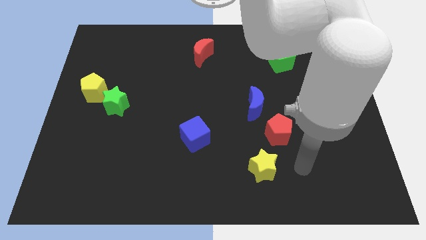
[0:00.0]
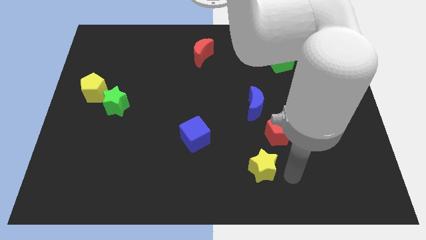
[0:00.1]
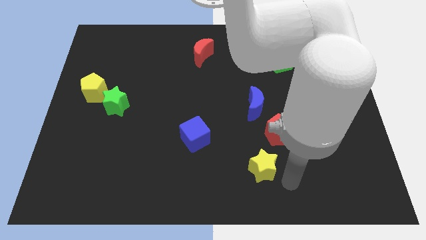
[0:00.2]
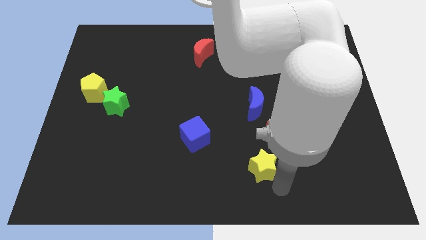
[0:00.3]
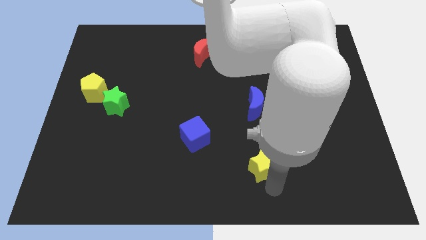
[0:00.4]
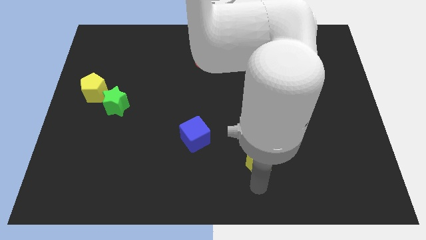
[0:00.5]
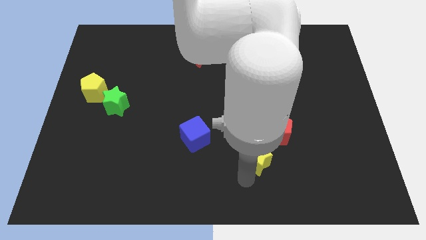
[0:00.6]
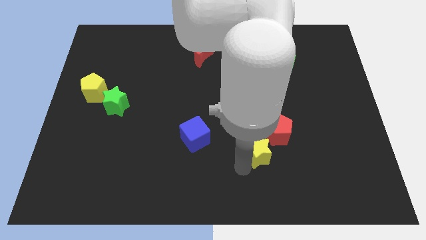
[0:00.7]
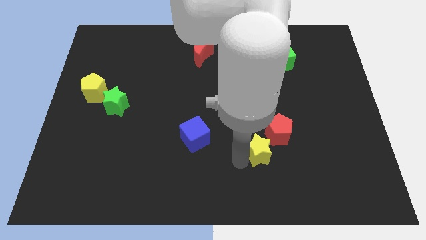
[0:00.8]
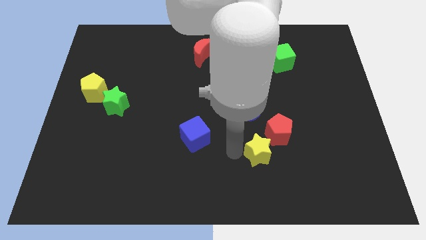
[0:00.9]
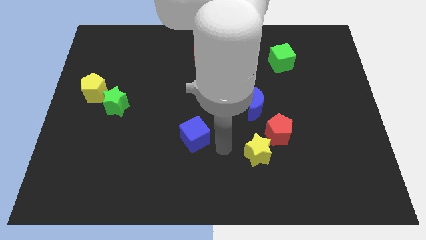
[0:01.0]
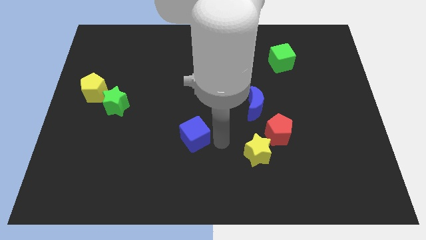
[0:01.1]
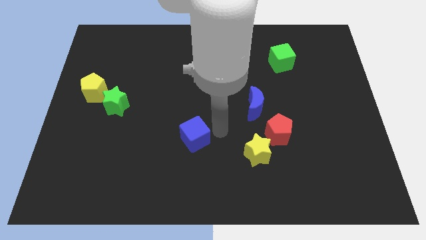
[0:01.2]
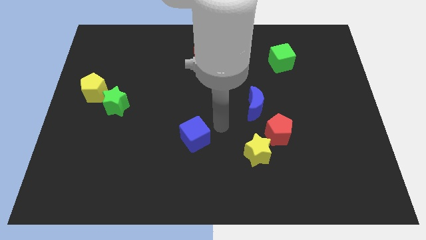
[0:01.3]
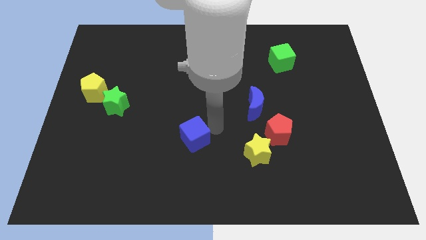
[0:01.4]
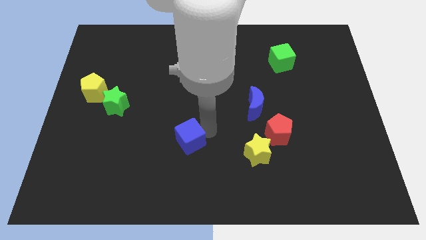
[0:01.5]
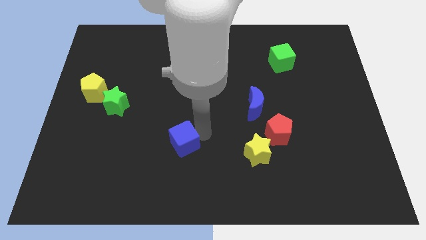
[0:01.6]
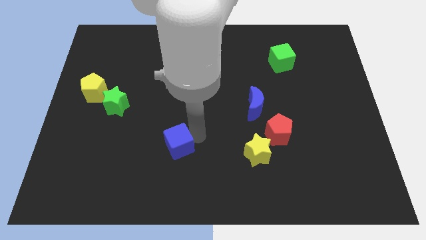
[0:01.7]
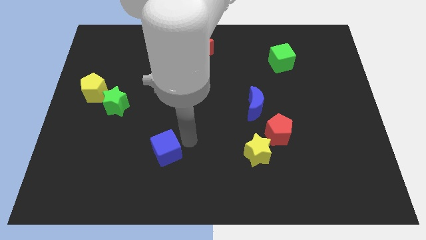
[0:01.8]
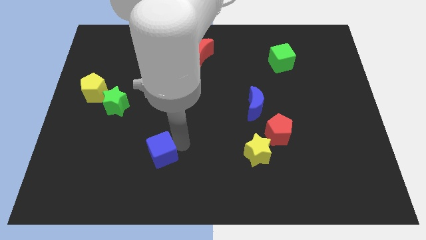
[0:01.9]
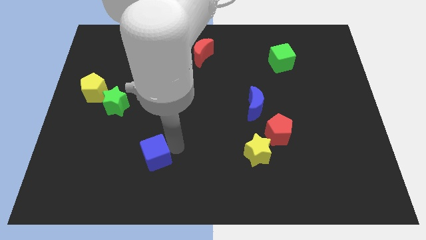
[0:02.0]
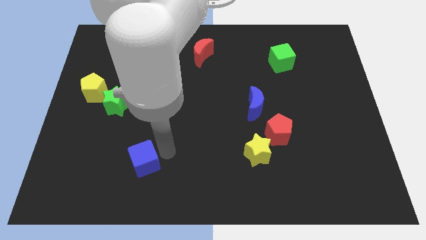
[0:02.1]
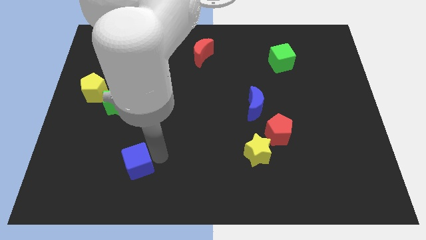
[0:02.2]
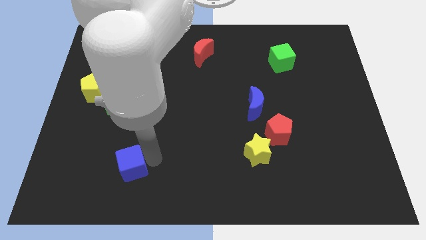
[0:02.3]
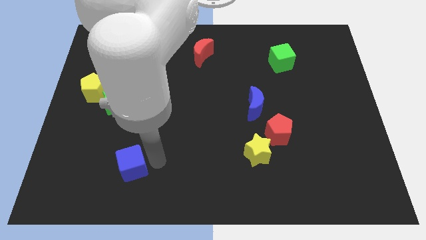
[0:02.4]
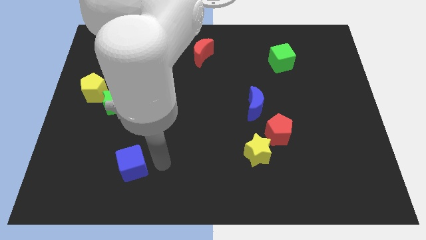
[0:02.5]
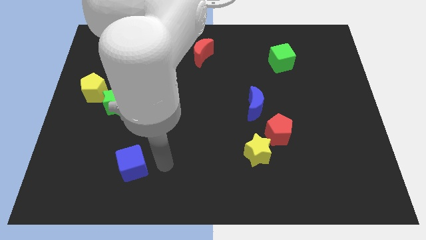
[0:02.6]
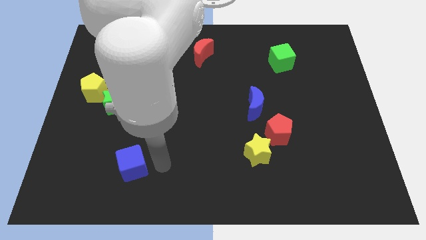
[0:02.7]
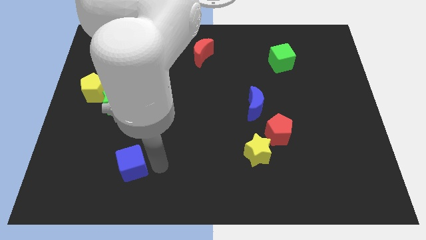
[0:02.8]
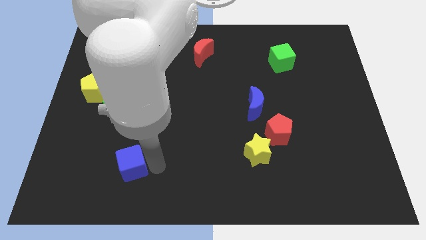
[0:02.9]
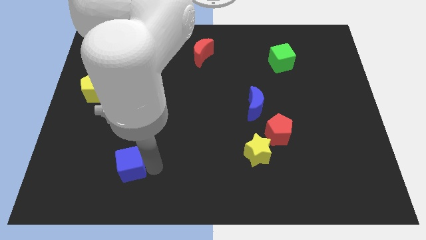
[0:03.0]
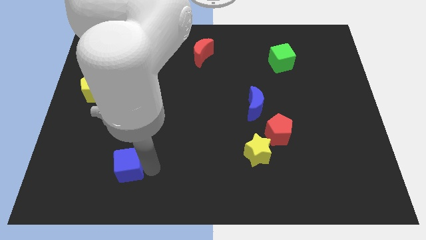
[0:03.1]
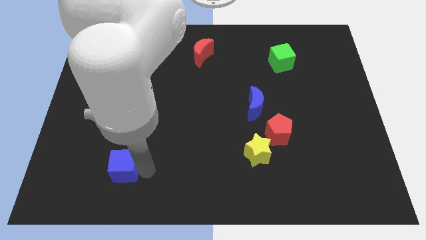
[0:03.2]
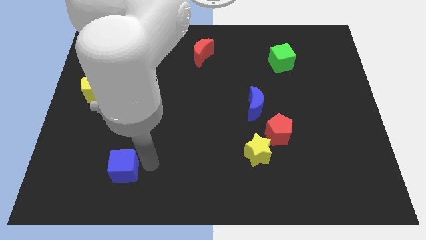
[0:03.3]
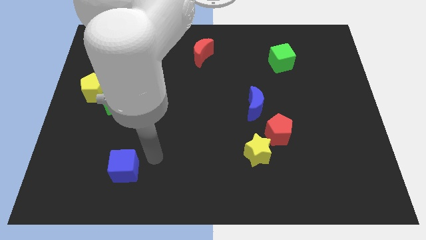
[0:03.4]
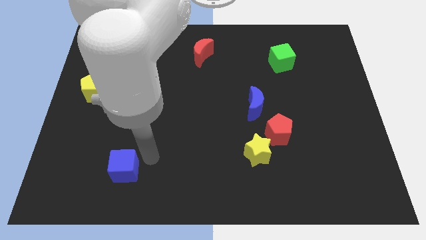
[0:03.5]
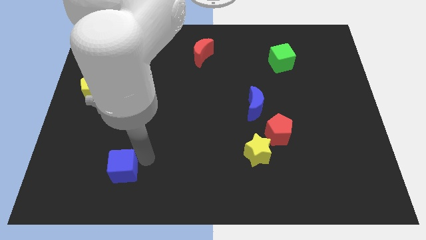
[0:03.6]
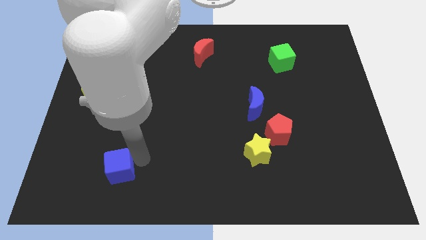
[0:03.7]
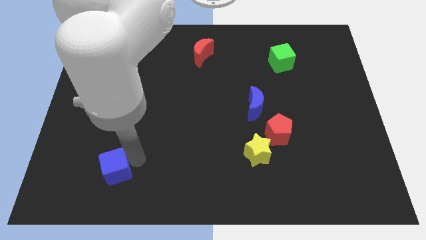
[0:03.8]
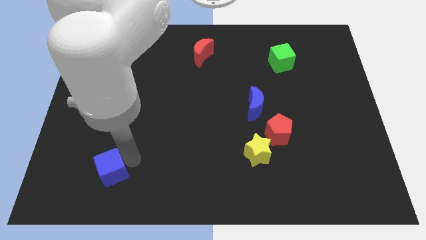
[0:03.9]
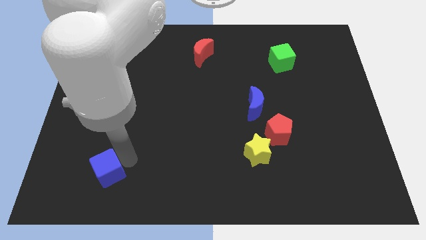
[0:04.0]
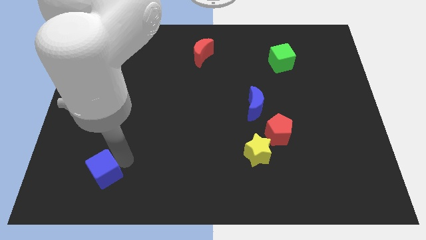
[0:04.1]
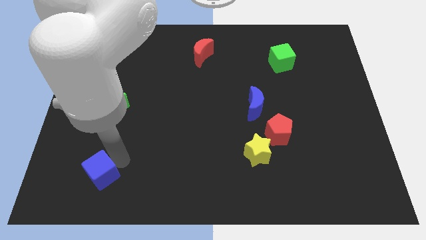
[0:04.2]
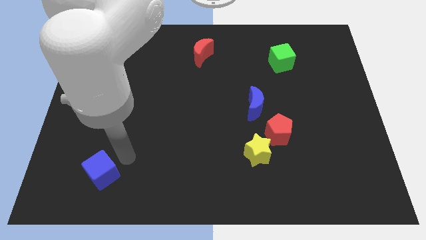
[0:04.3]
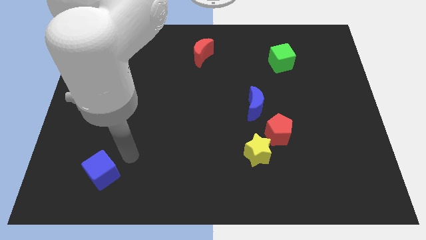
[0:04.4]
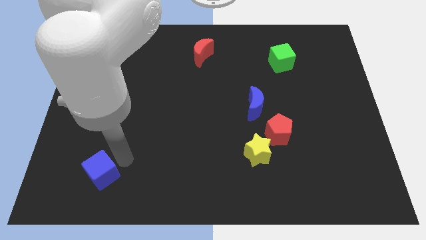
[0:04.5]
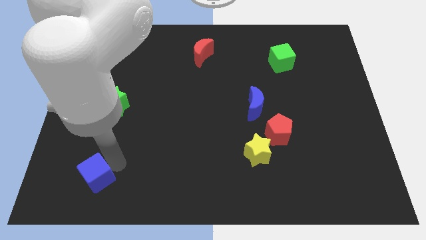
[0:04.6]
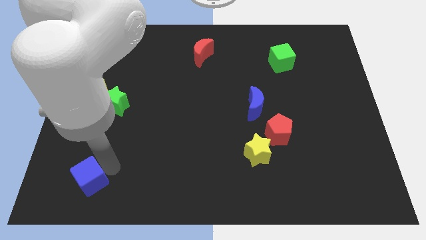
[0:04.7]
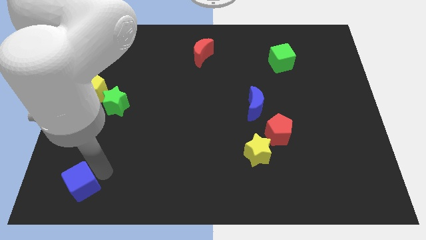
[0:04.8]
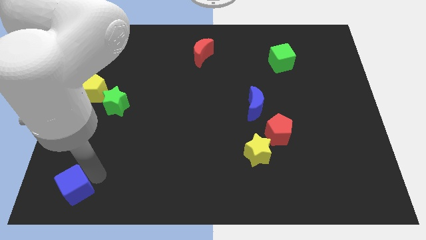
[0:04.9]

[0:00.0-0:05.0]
slide the blue cube to the lower left corner

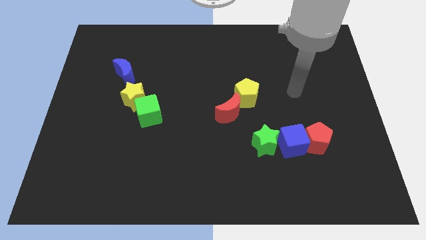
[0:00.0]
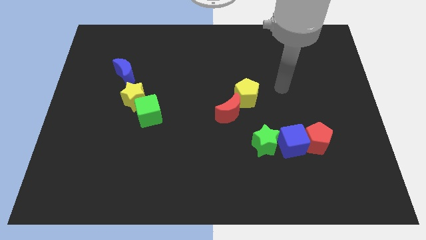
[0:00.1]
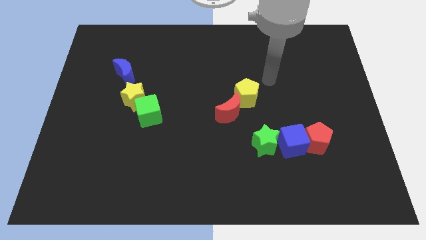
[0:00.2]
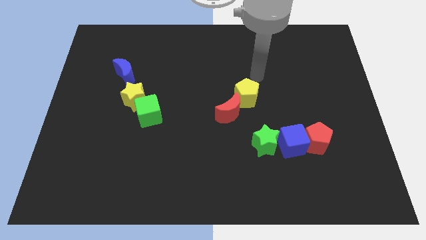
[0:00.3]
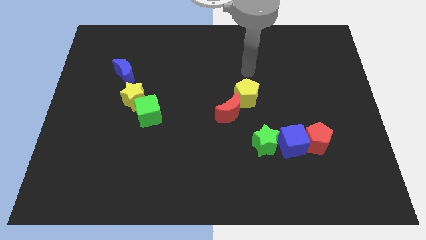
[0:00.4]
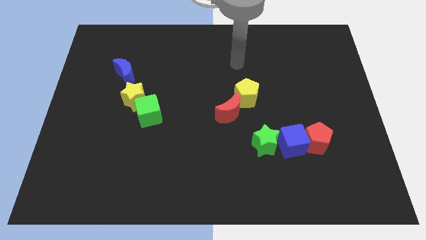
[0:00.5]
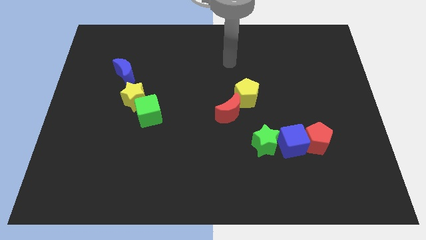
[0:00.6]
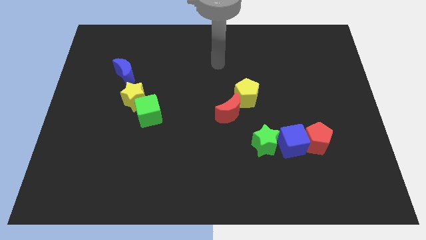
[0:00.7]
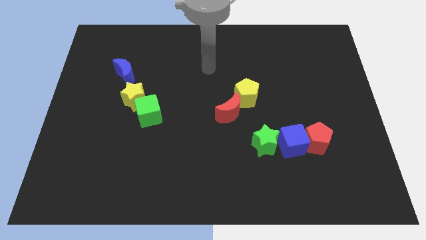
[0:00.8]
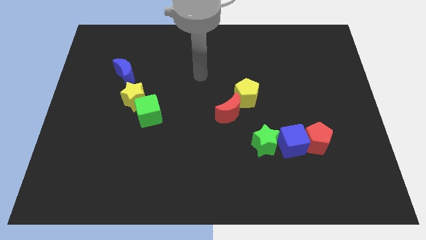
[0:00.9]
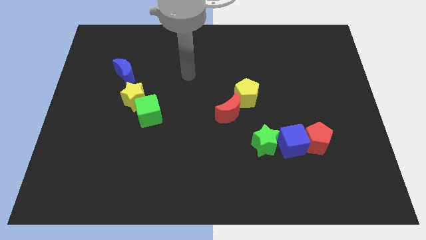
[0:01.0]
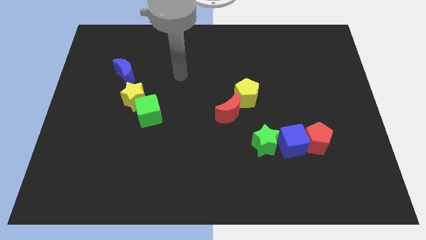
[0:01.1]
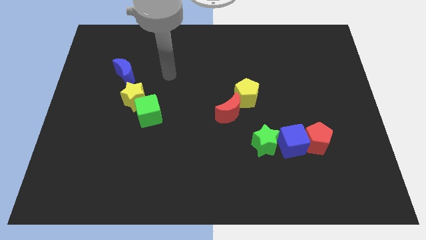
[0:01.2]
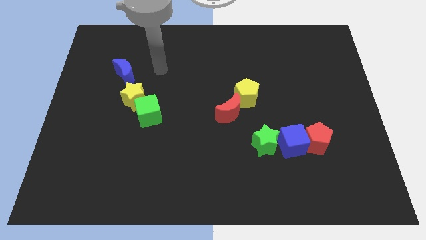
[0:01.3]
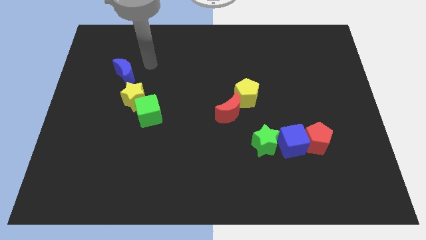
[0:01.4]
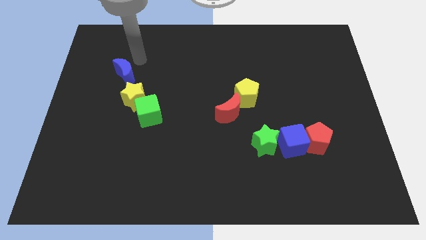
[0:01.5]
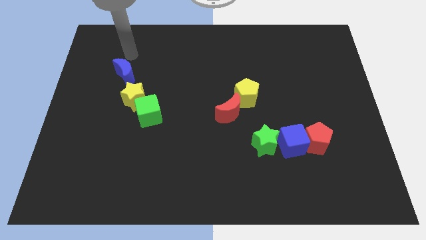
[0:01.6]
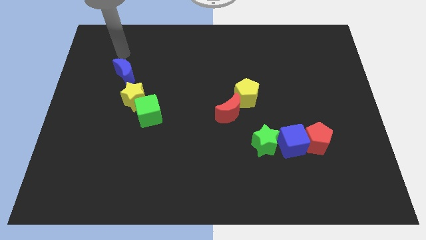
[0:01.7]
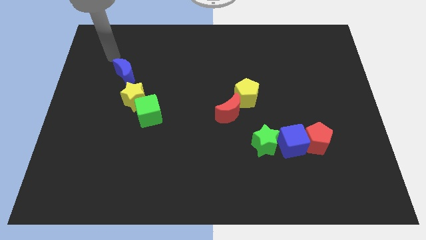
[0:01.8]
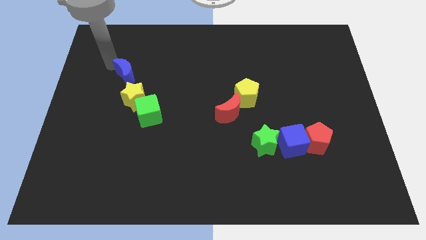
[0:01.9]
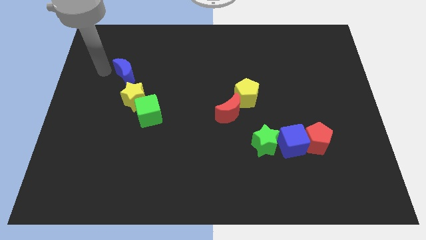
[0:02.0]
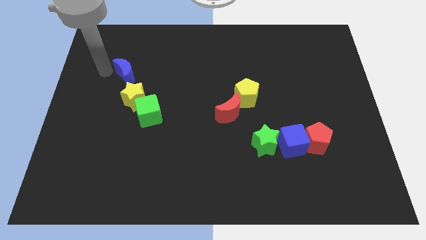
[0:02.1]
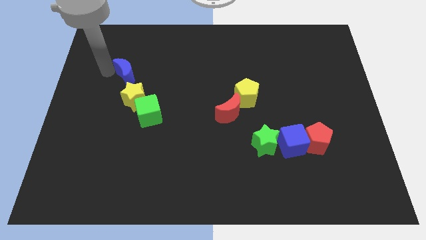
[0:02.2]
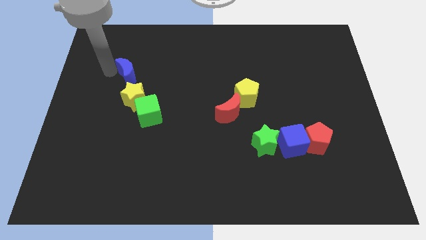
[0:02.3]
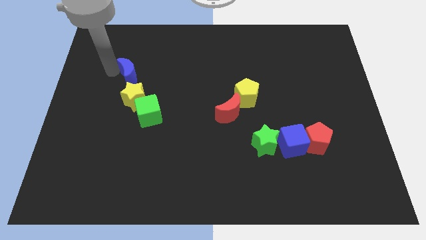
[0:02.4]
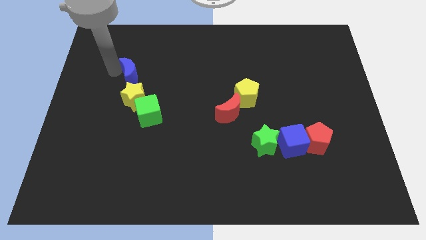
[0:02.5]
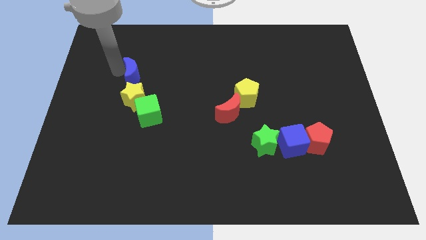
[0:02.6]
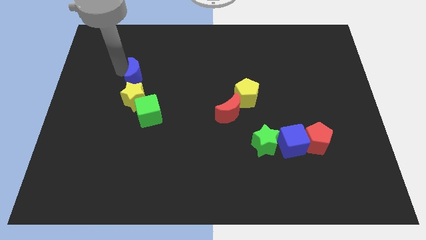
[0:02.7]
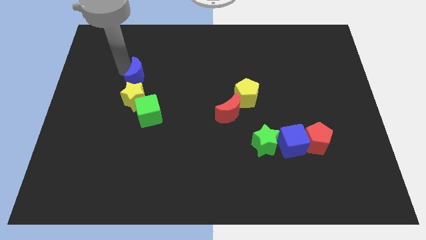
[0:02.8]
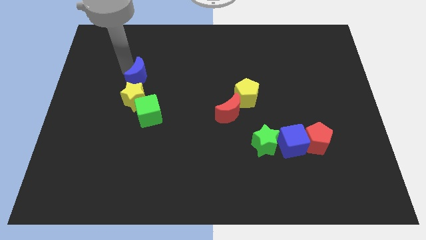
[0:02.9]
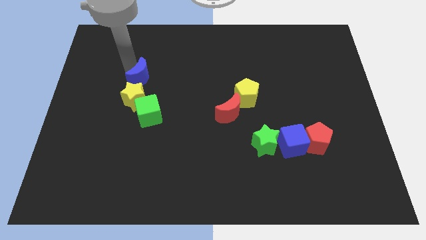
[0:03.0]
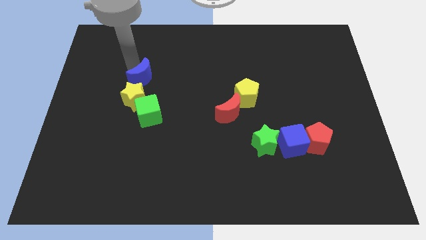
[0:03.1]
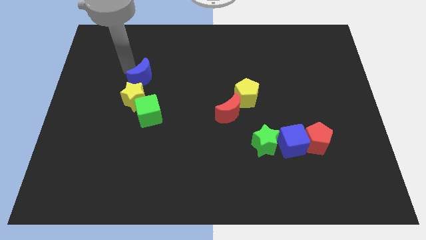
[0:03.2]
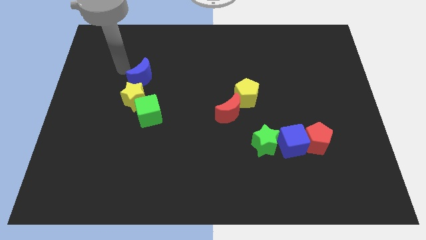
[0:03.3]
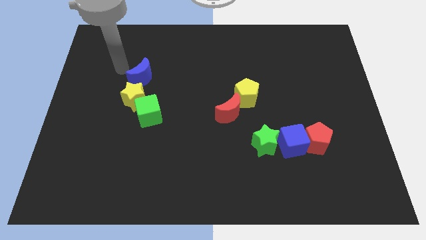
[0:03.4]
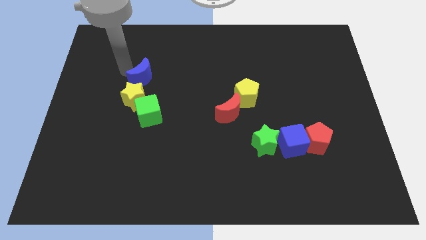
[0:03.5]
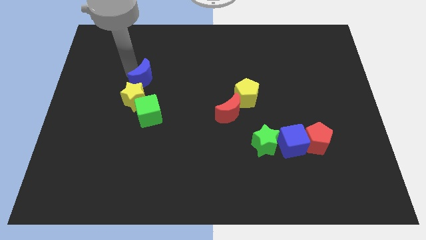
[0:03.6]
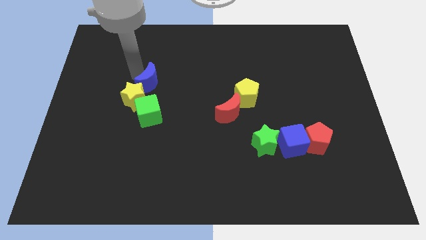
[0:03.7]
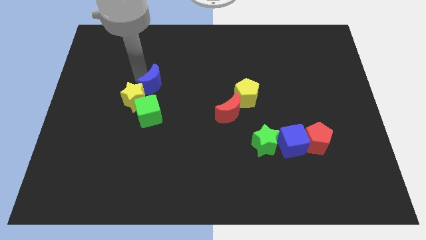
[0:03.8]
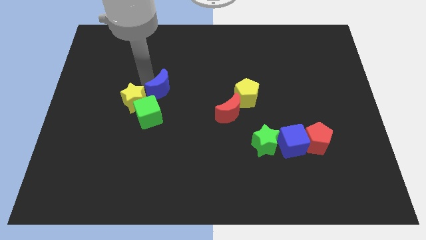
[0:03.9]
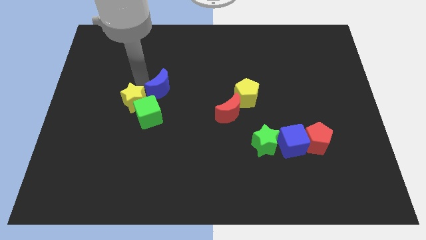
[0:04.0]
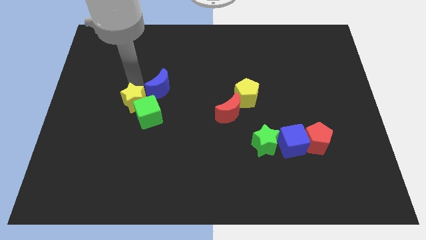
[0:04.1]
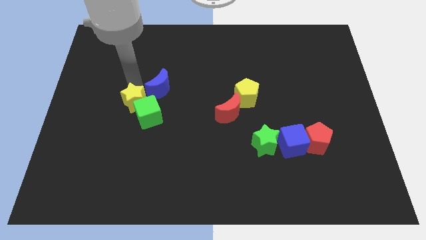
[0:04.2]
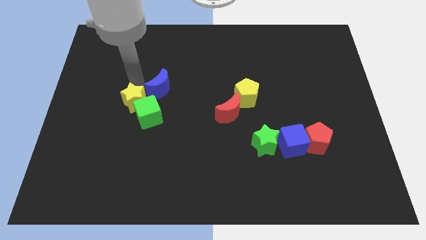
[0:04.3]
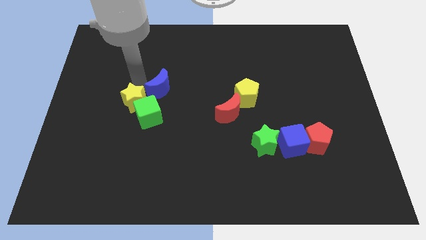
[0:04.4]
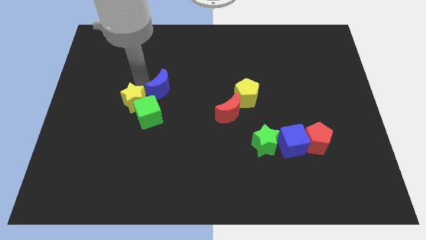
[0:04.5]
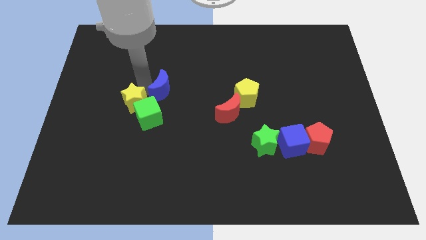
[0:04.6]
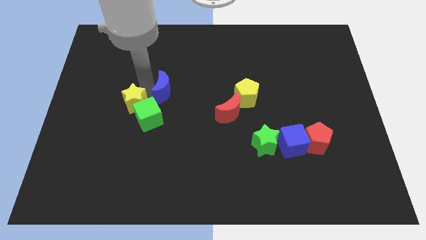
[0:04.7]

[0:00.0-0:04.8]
put the blue moon to the center of the board
